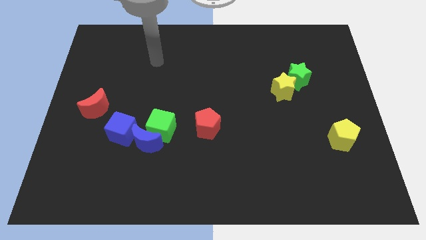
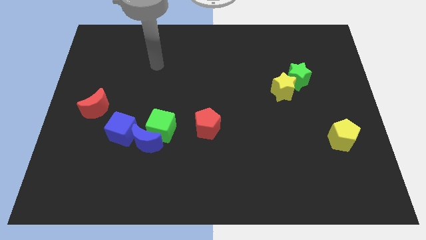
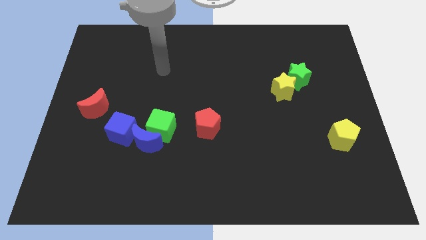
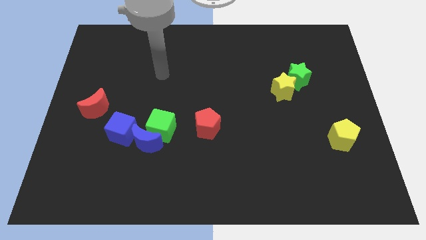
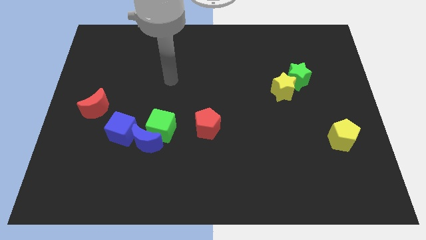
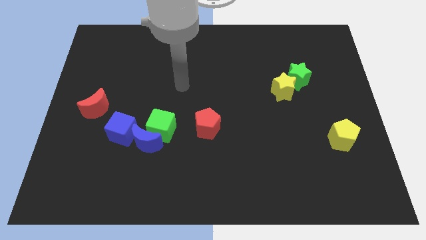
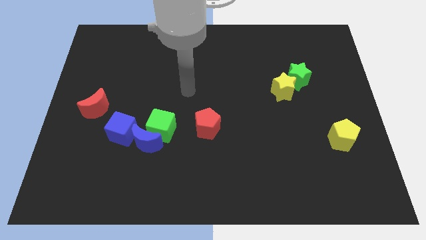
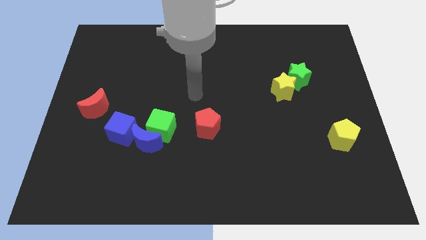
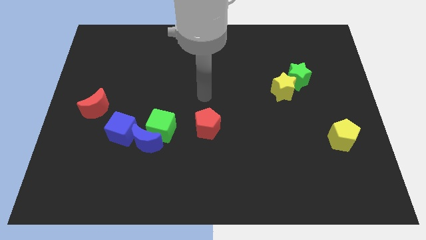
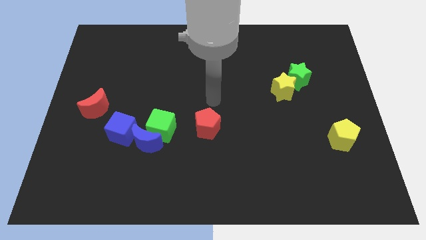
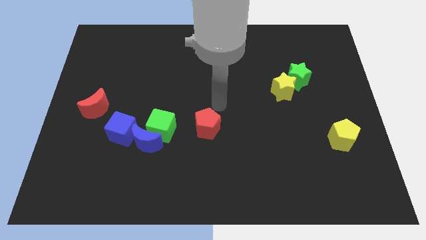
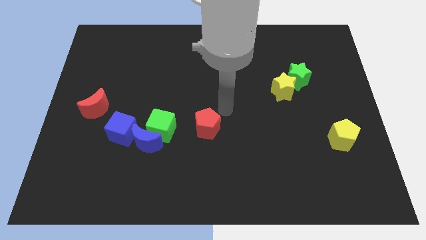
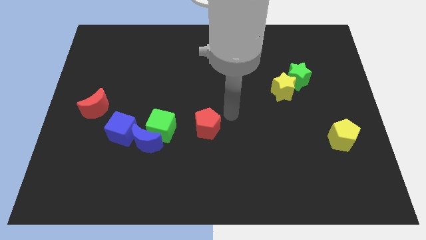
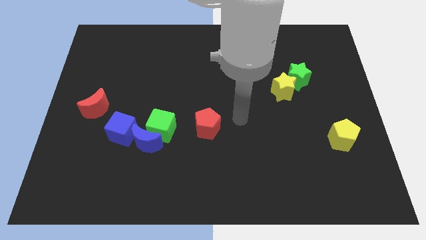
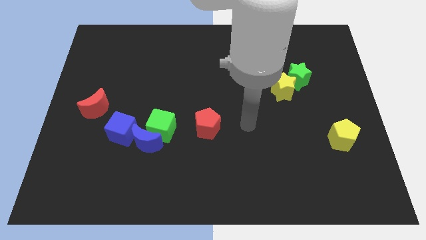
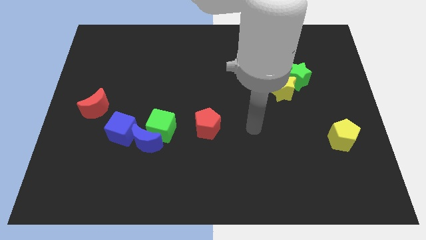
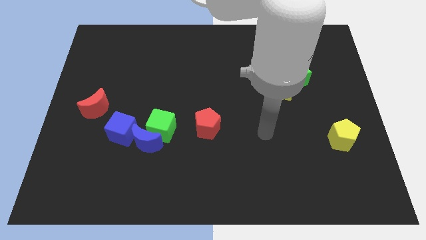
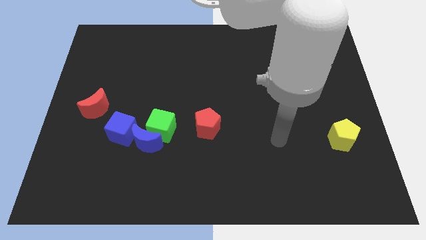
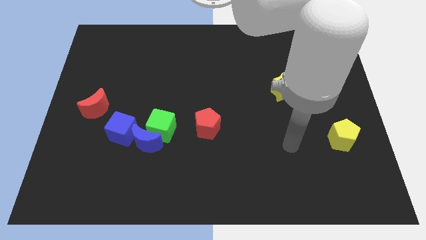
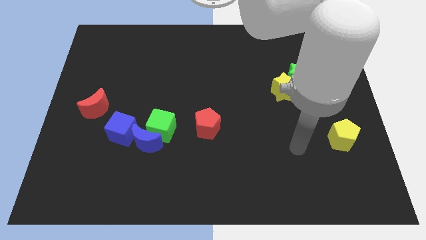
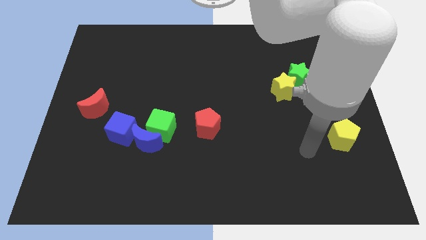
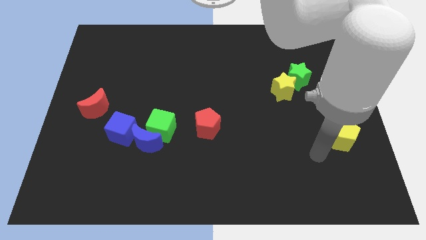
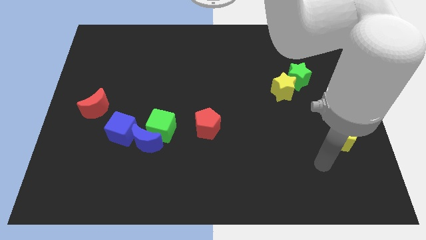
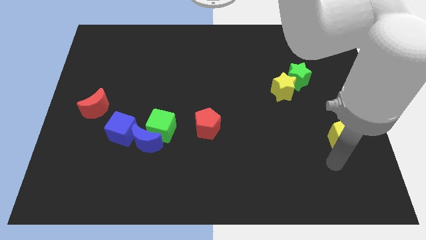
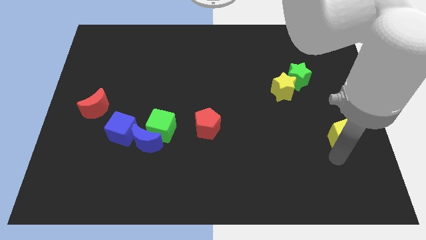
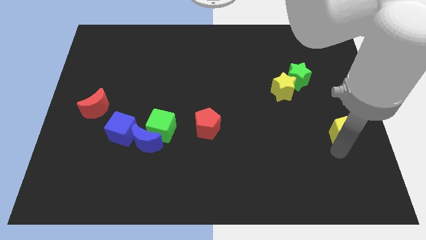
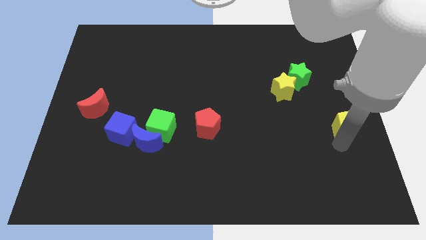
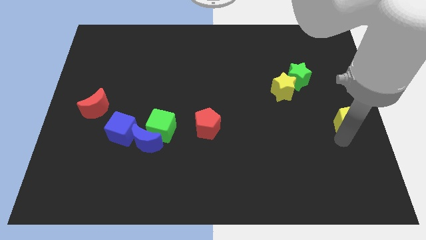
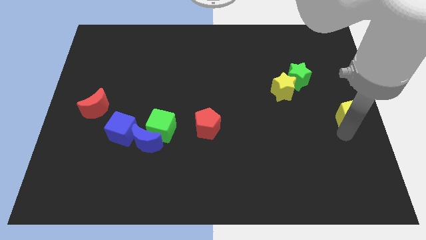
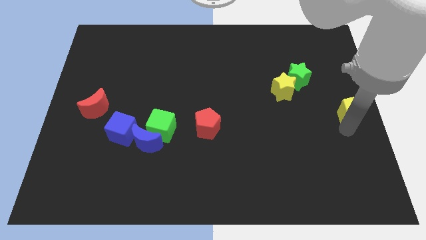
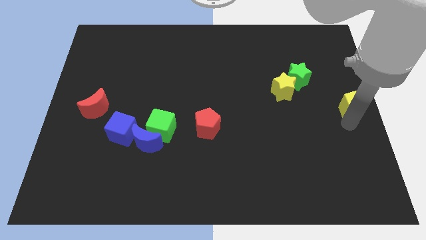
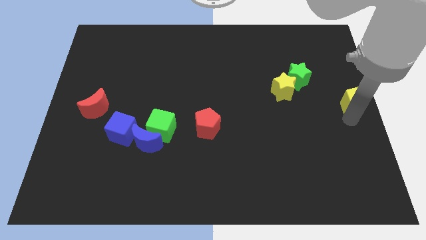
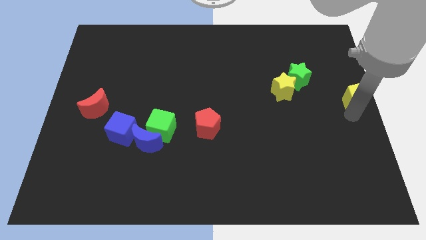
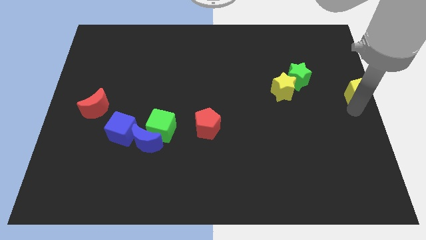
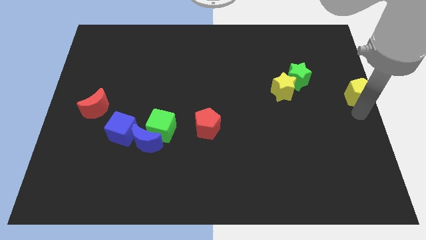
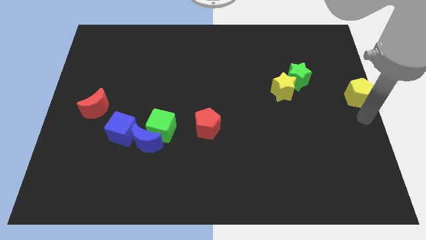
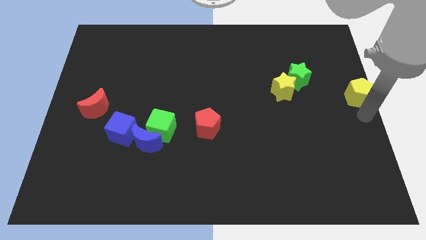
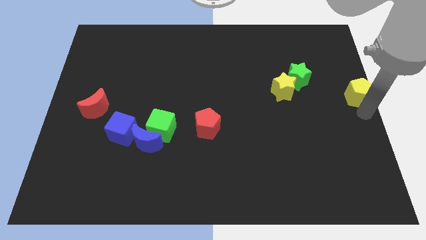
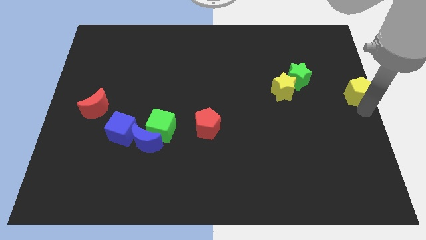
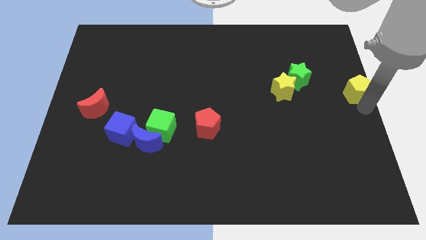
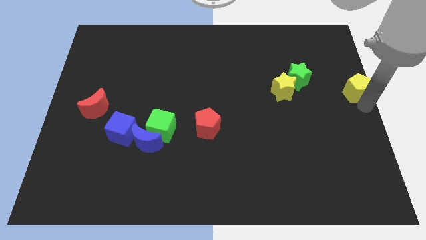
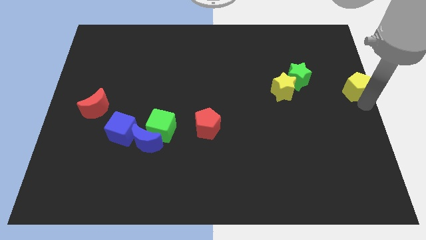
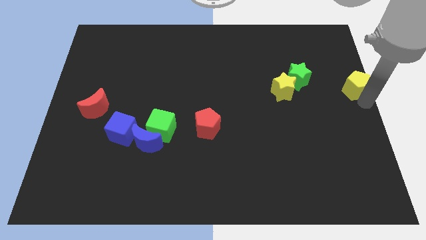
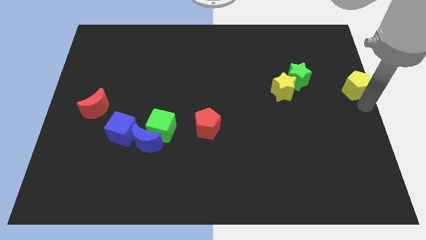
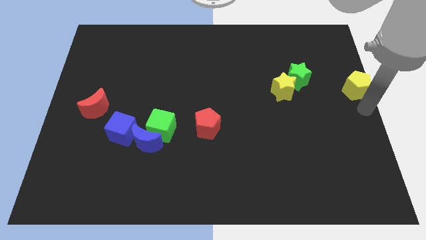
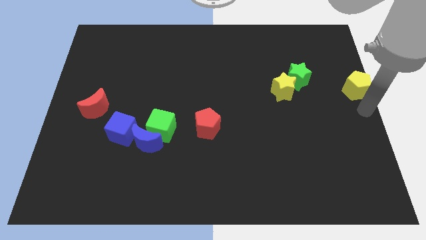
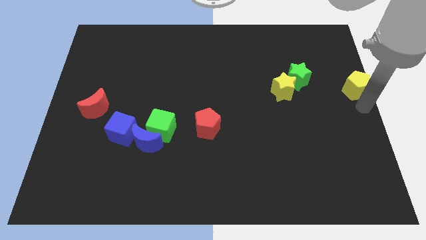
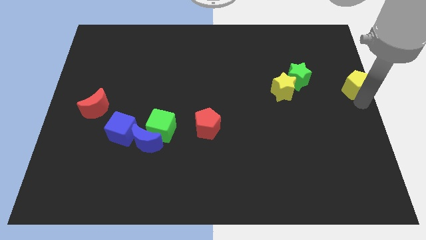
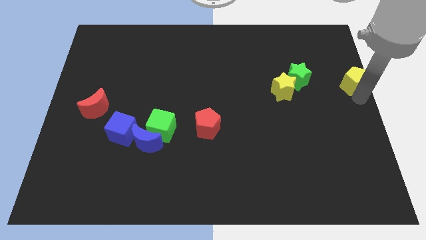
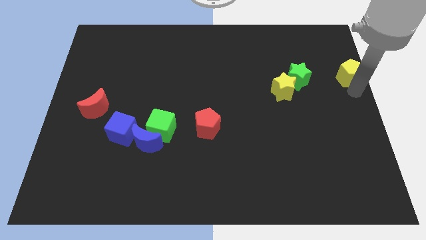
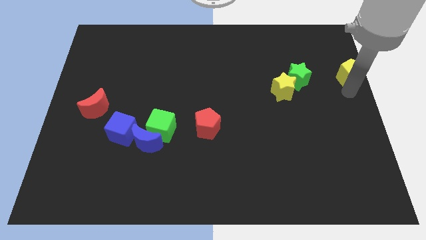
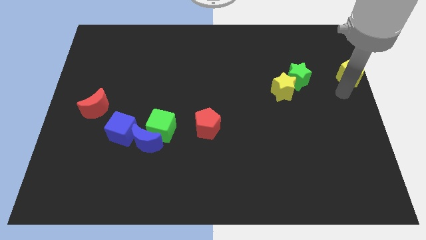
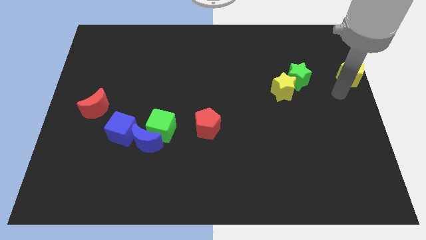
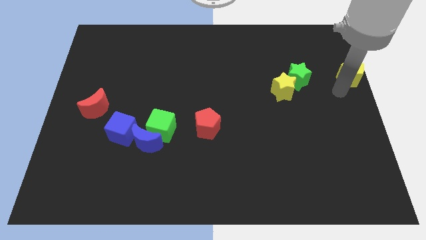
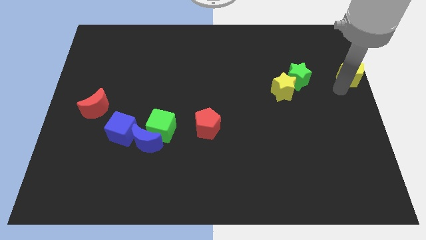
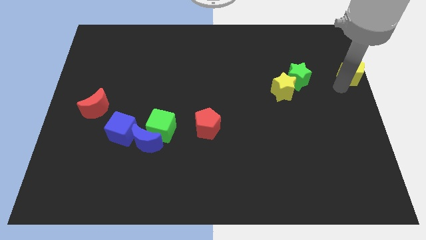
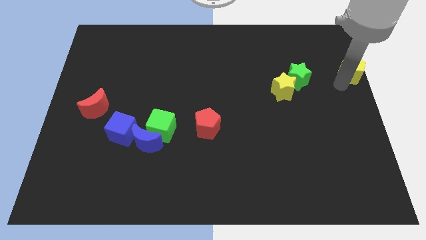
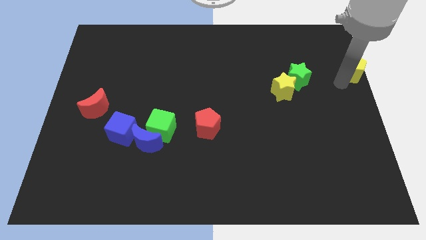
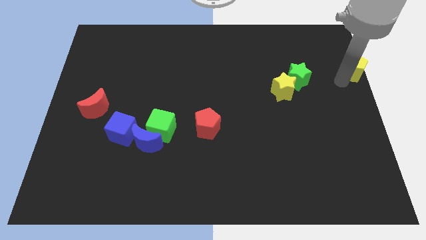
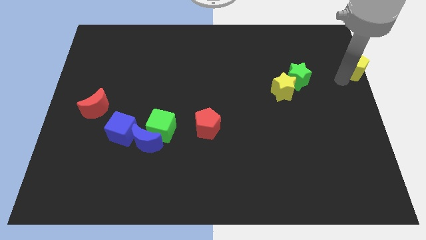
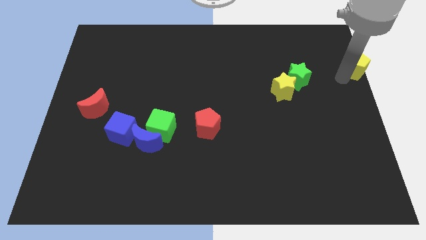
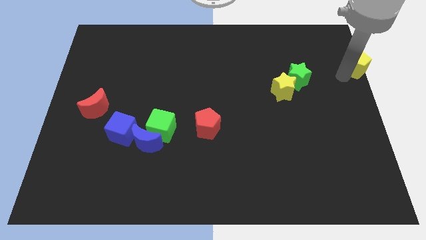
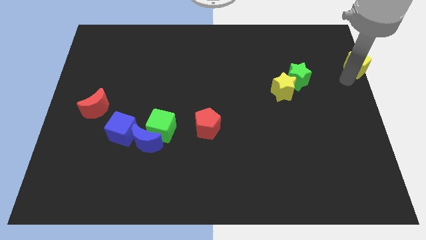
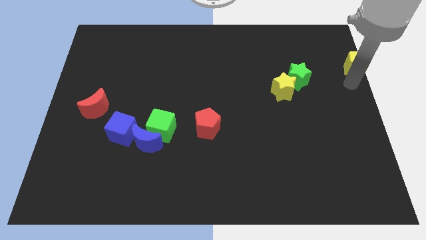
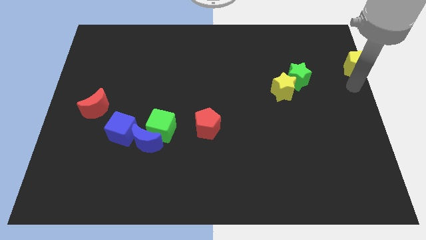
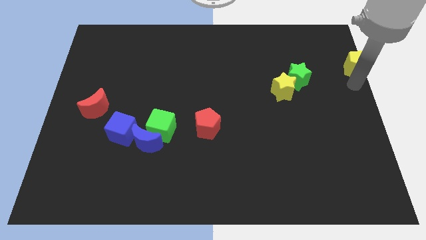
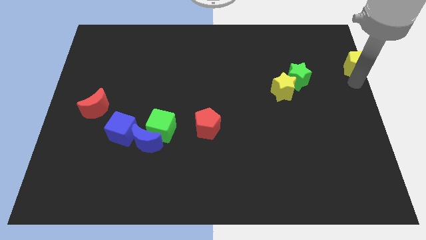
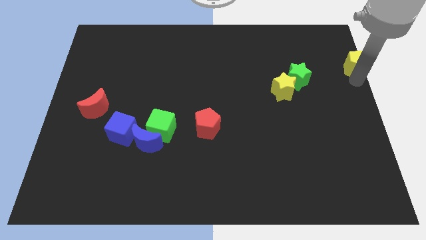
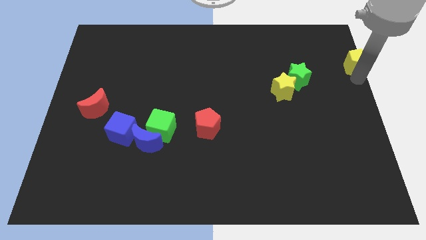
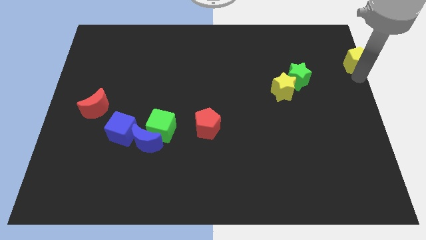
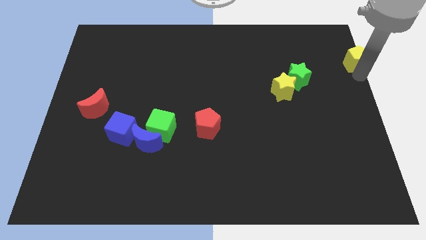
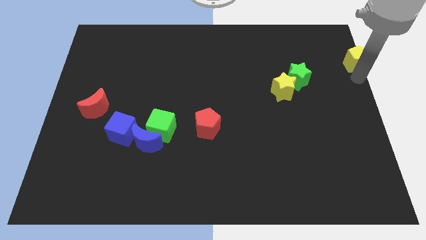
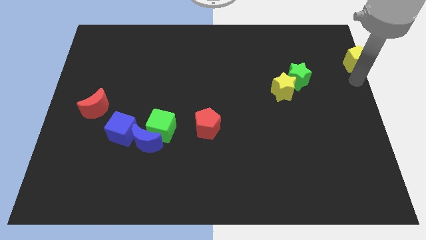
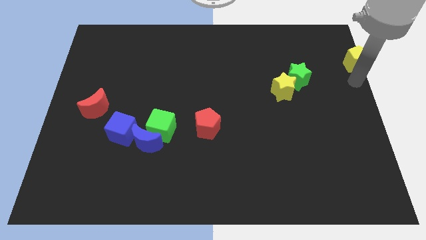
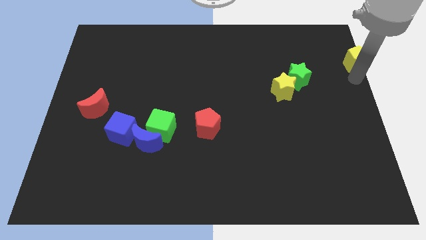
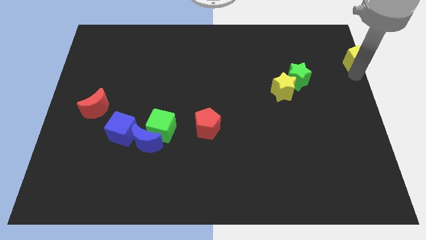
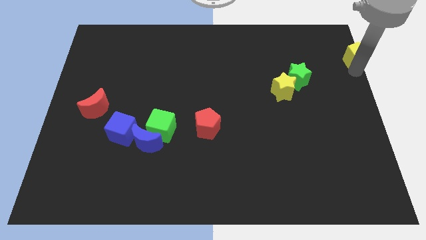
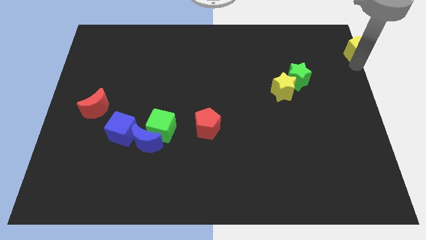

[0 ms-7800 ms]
put the yellow pentagon to the top right of the board
